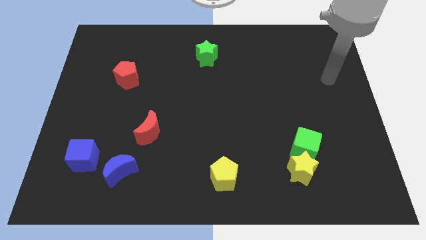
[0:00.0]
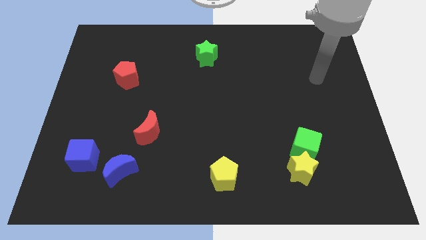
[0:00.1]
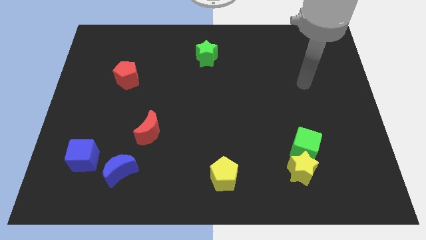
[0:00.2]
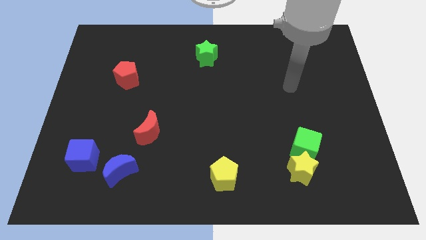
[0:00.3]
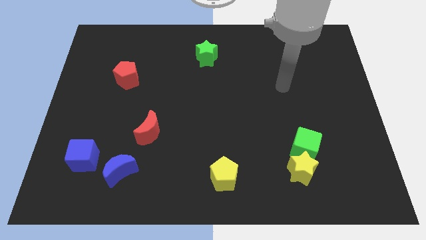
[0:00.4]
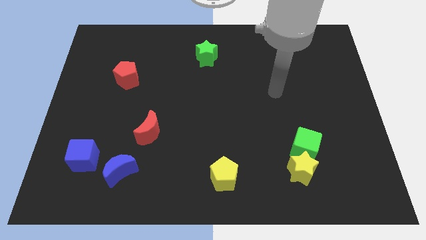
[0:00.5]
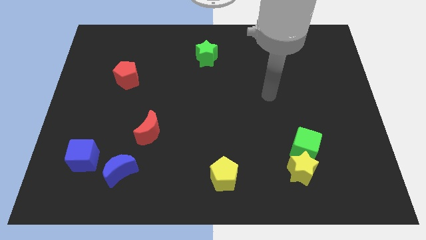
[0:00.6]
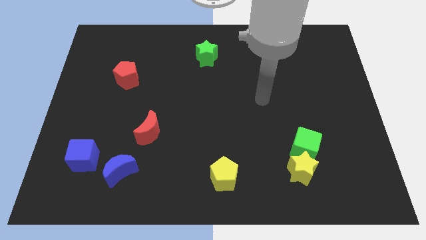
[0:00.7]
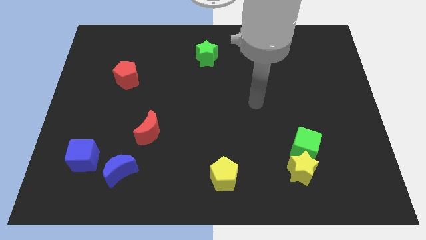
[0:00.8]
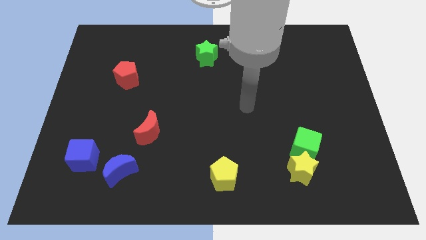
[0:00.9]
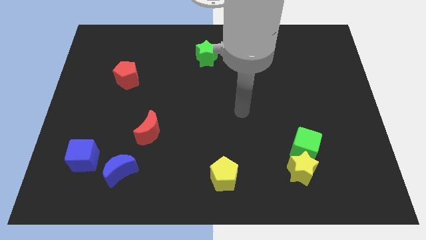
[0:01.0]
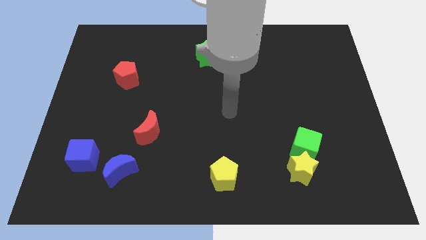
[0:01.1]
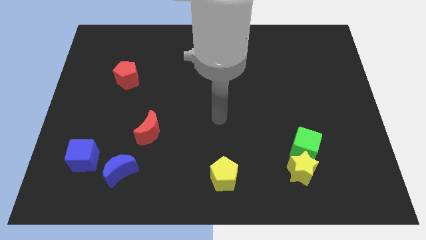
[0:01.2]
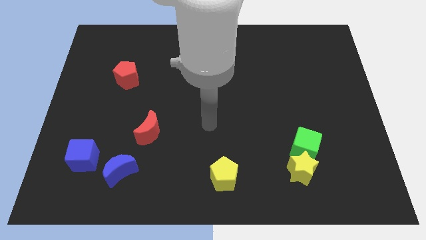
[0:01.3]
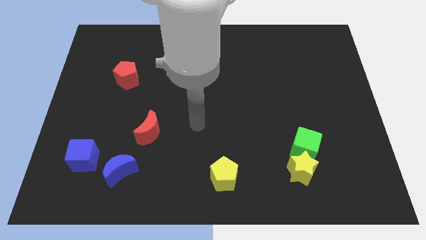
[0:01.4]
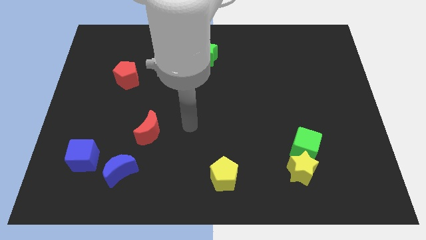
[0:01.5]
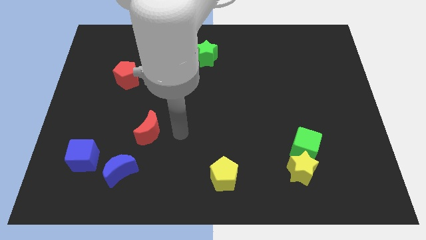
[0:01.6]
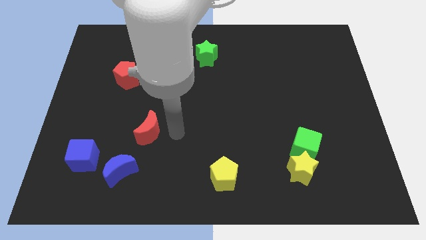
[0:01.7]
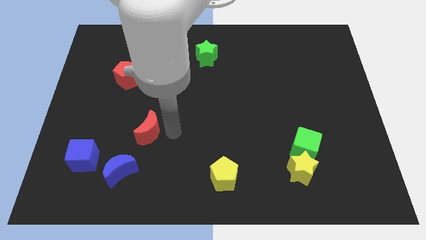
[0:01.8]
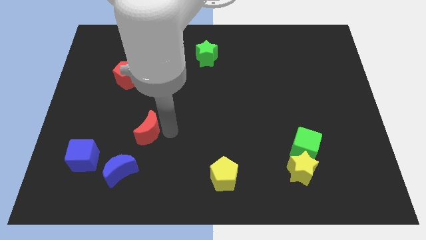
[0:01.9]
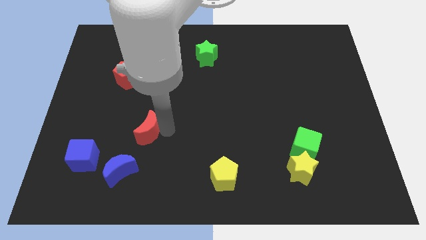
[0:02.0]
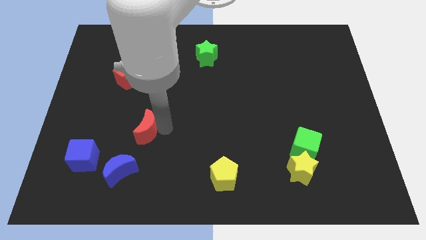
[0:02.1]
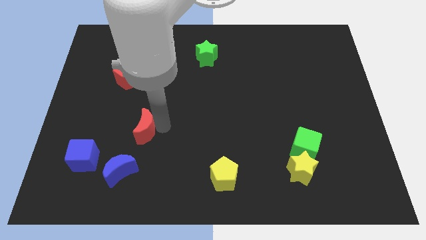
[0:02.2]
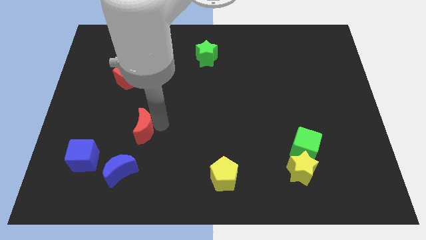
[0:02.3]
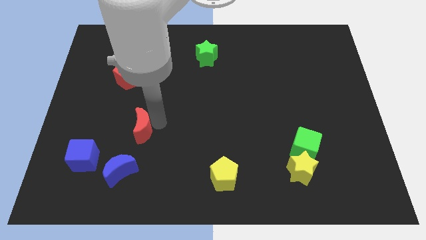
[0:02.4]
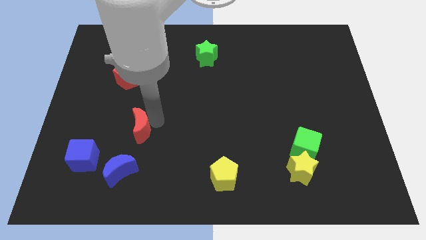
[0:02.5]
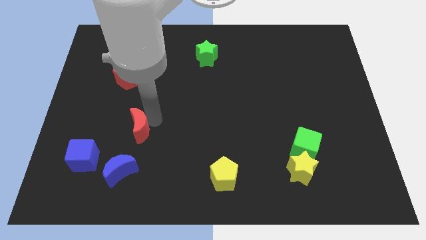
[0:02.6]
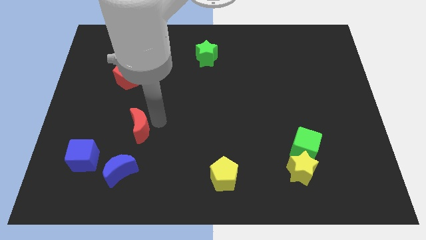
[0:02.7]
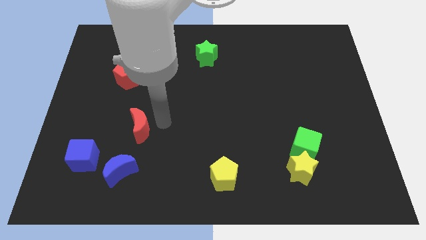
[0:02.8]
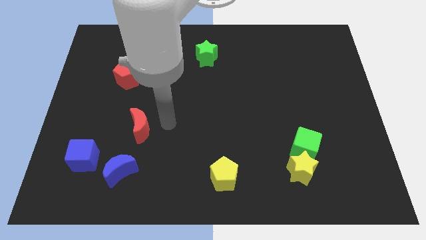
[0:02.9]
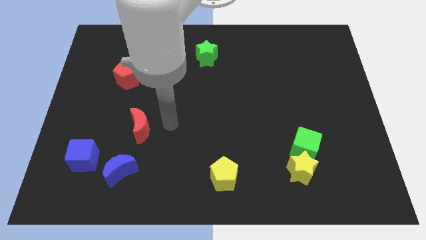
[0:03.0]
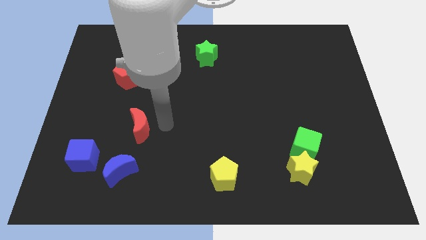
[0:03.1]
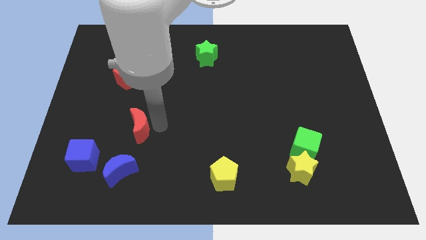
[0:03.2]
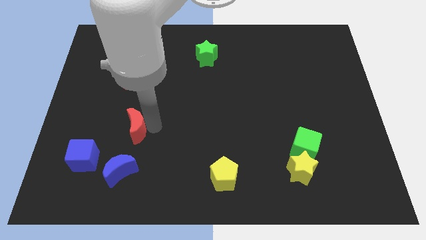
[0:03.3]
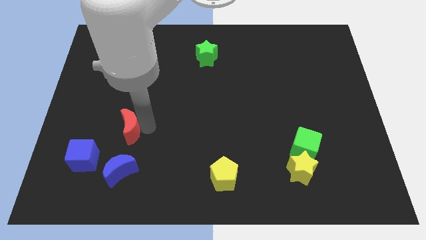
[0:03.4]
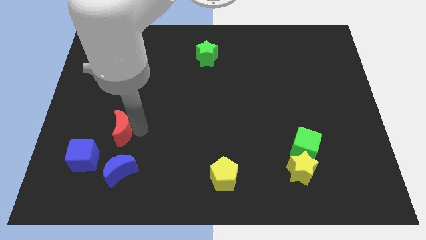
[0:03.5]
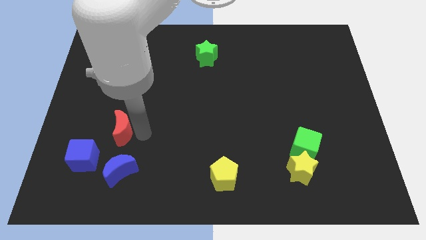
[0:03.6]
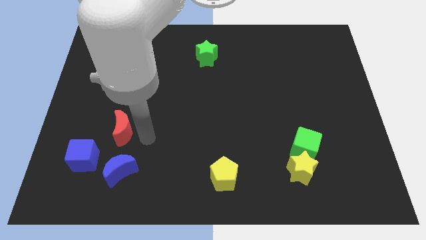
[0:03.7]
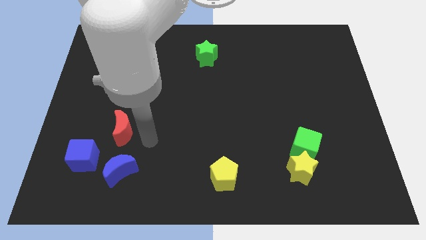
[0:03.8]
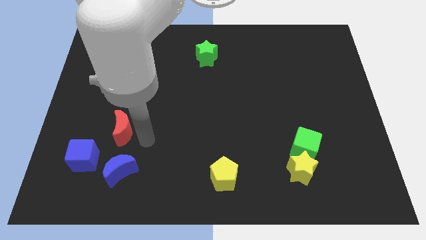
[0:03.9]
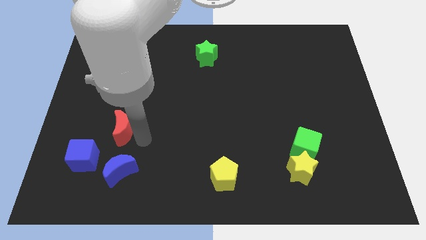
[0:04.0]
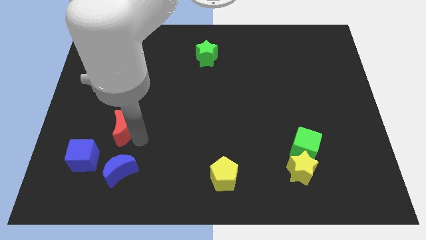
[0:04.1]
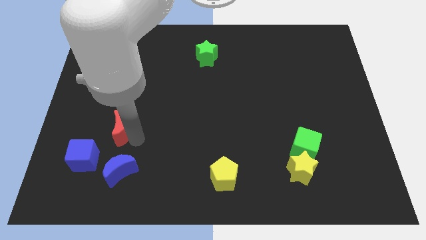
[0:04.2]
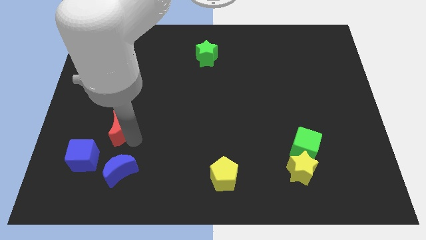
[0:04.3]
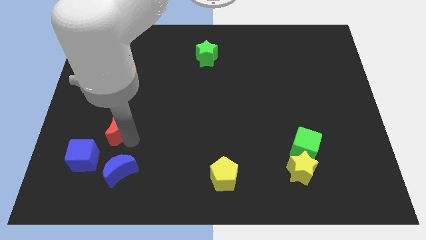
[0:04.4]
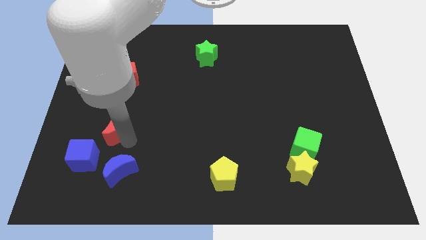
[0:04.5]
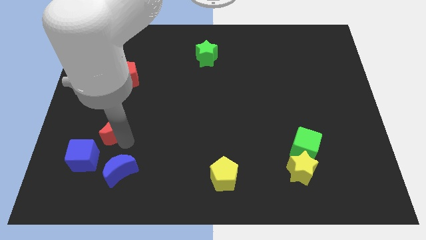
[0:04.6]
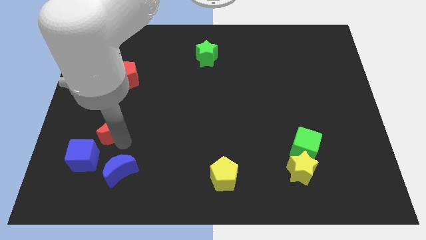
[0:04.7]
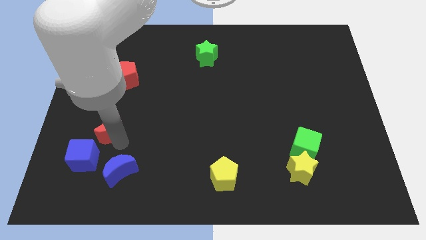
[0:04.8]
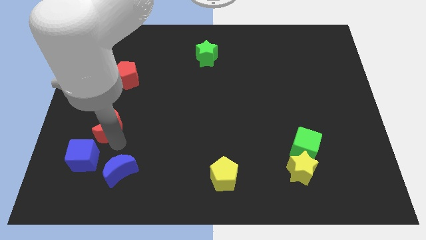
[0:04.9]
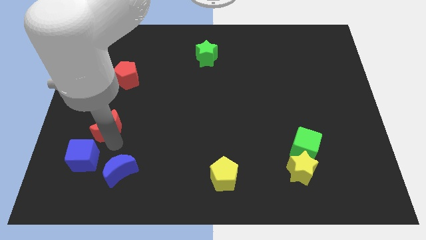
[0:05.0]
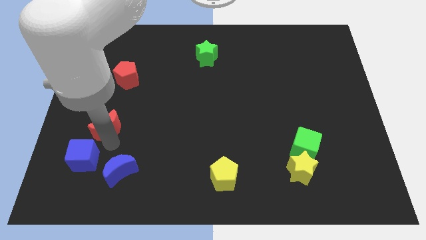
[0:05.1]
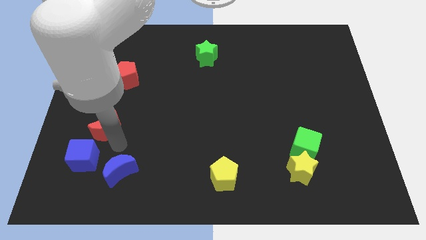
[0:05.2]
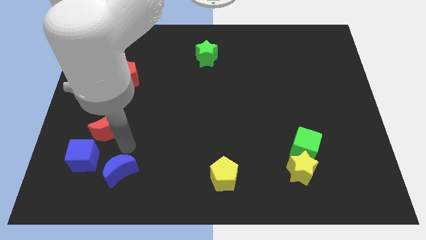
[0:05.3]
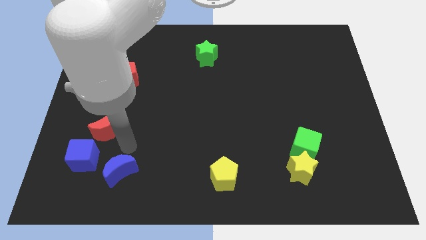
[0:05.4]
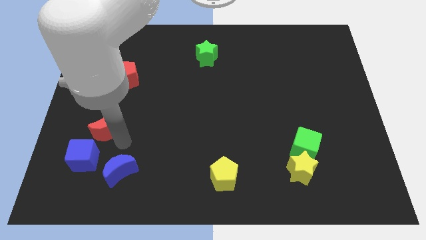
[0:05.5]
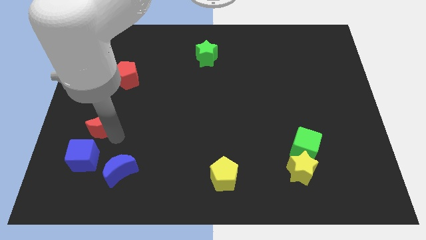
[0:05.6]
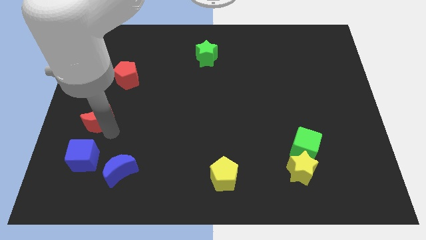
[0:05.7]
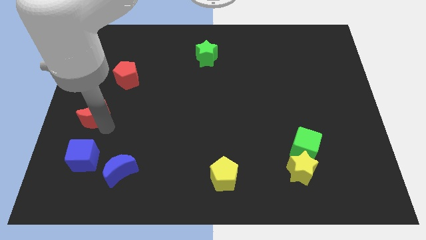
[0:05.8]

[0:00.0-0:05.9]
push the red moon to the left side

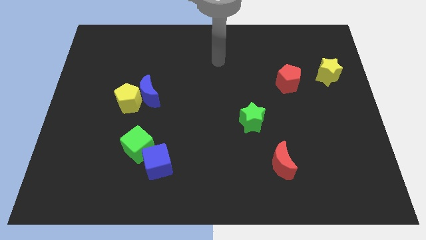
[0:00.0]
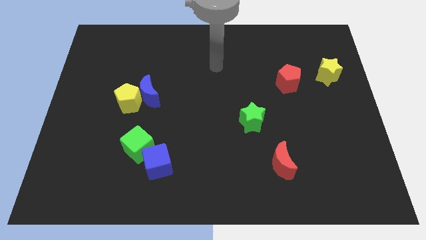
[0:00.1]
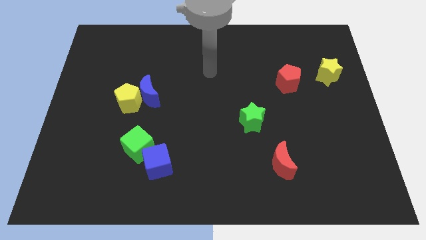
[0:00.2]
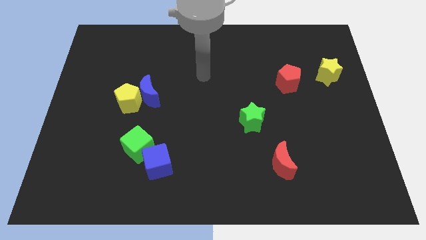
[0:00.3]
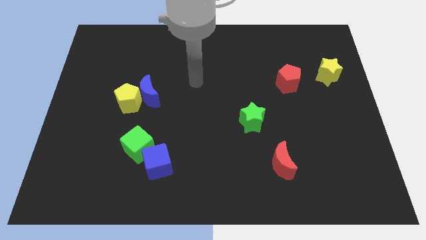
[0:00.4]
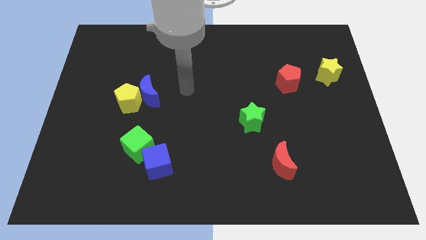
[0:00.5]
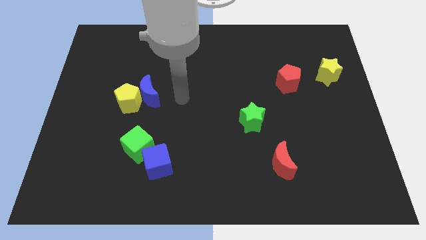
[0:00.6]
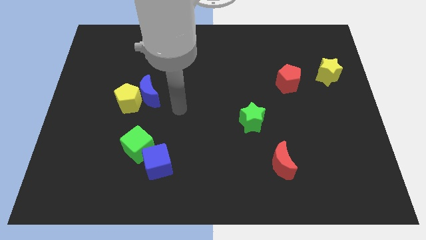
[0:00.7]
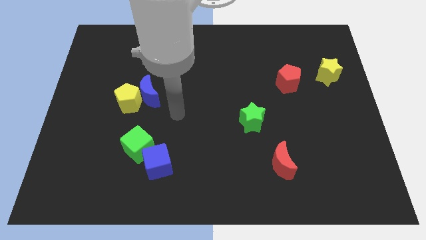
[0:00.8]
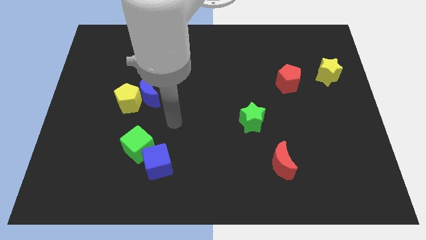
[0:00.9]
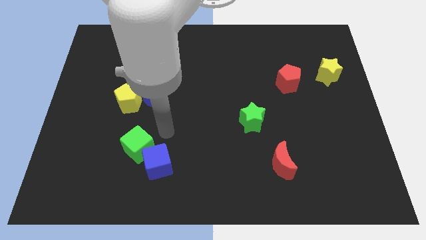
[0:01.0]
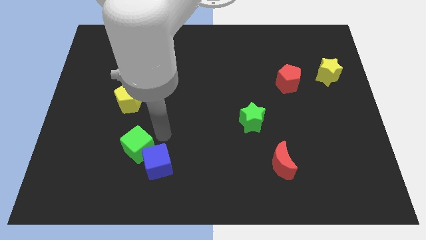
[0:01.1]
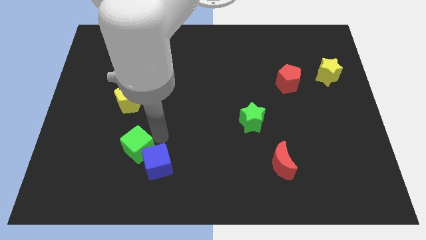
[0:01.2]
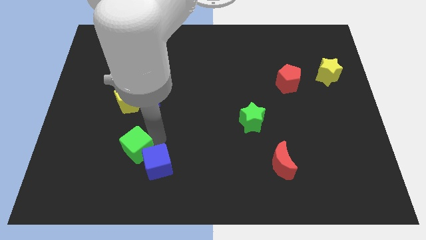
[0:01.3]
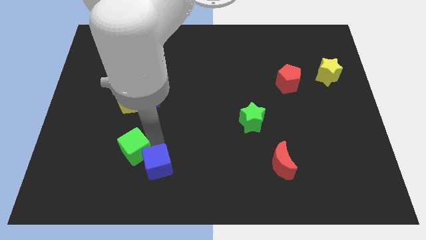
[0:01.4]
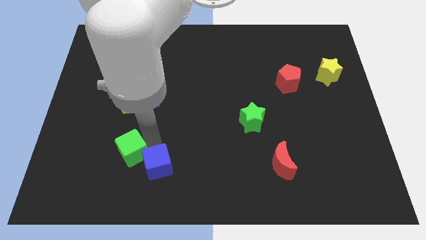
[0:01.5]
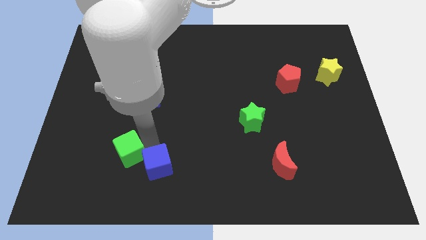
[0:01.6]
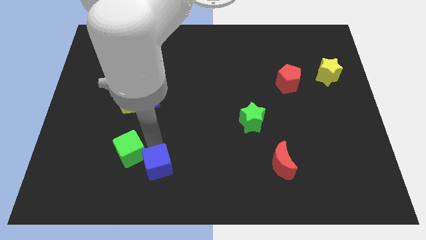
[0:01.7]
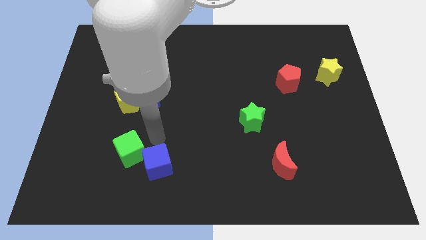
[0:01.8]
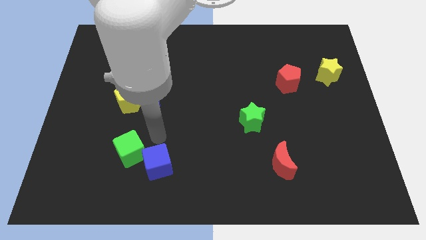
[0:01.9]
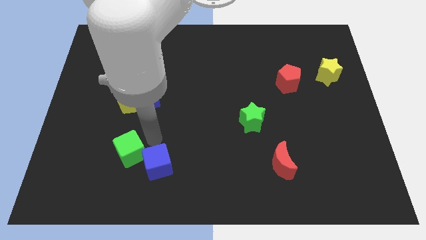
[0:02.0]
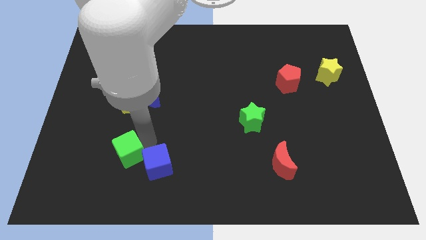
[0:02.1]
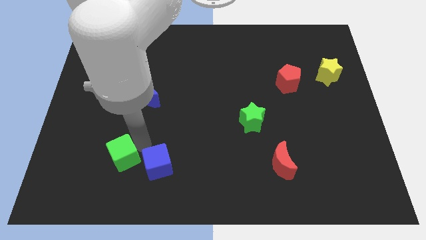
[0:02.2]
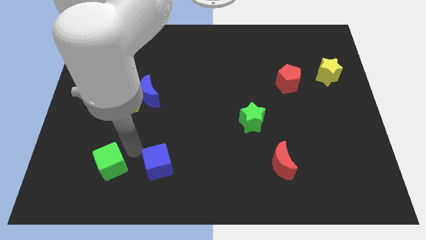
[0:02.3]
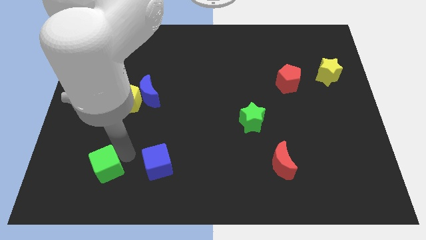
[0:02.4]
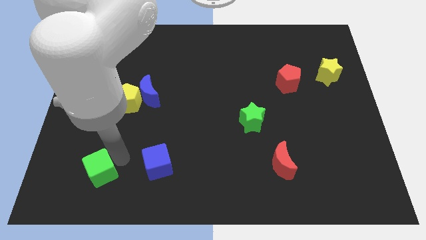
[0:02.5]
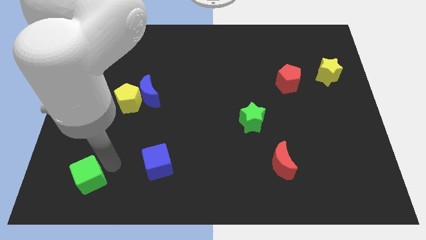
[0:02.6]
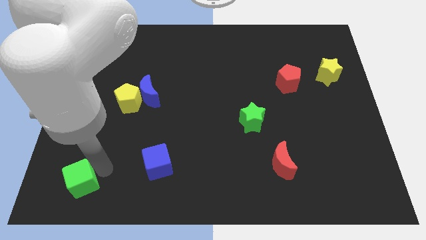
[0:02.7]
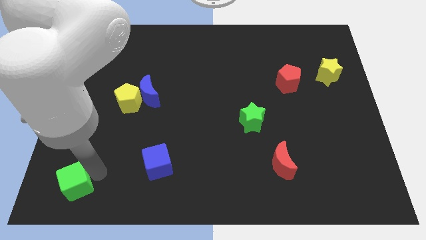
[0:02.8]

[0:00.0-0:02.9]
slide the green cube to the bottom left corner
